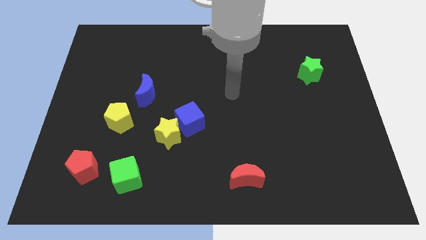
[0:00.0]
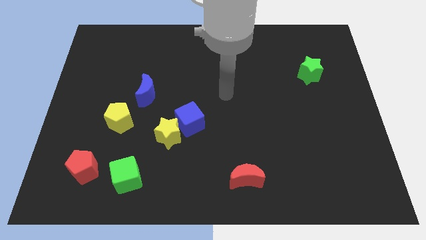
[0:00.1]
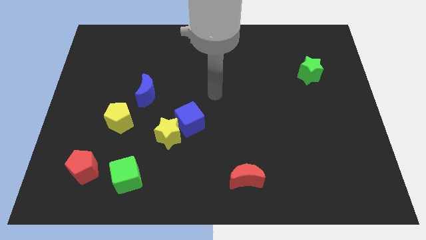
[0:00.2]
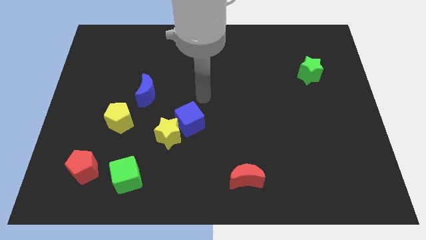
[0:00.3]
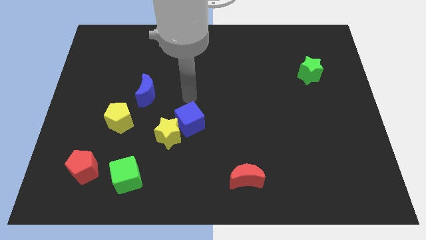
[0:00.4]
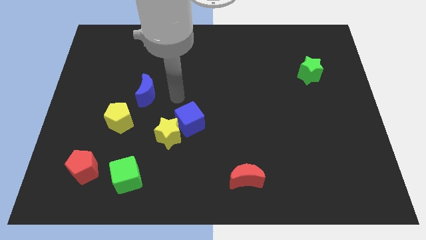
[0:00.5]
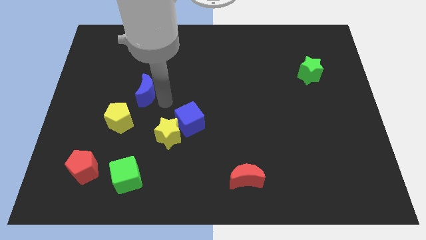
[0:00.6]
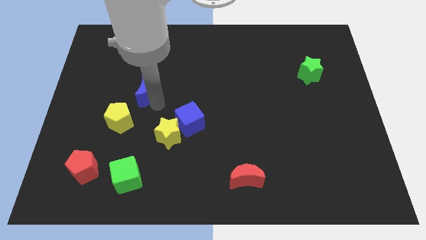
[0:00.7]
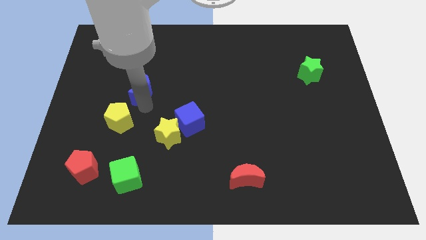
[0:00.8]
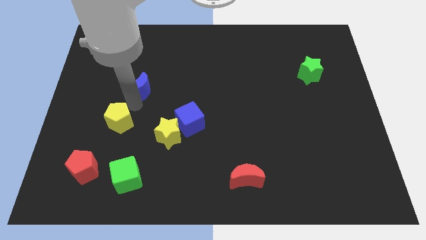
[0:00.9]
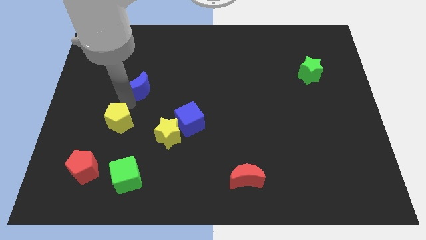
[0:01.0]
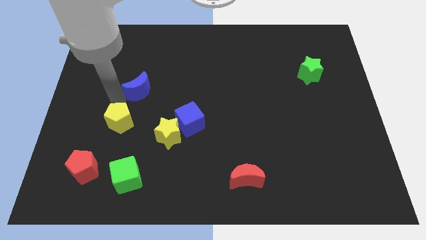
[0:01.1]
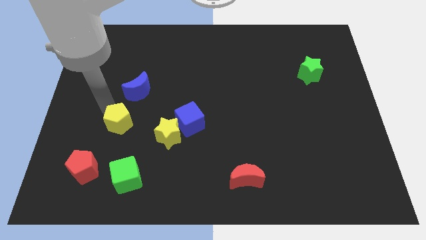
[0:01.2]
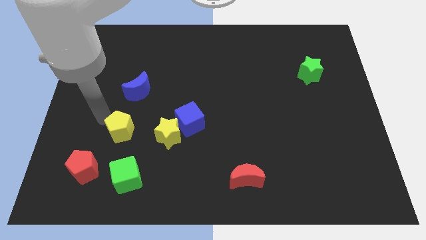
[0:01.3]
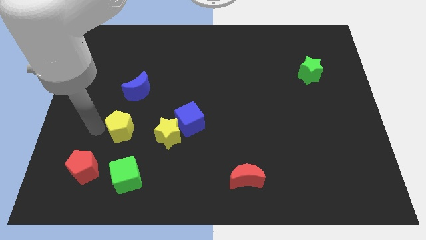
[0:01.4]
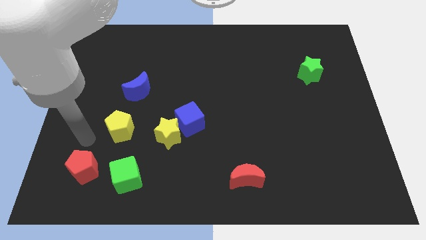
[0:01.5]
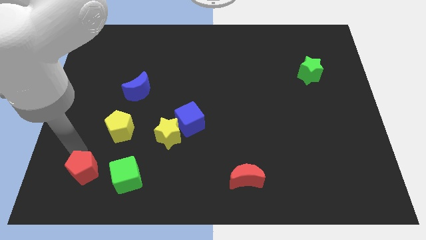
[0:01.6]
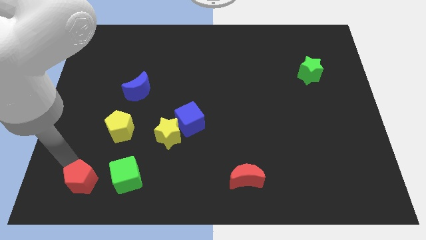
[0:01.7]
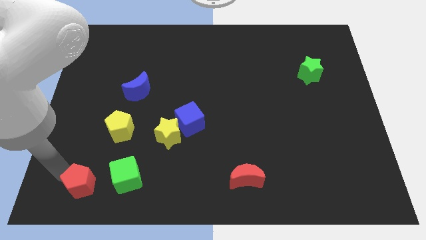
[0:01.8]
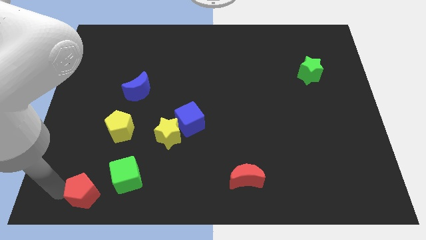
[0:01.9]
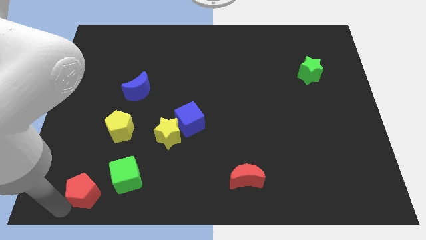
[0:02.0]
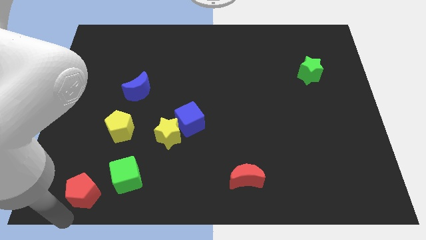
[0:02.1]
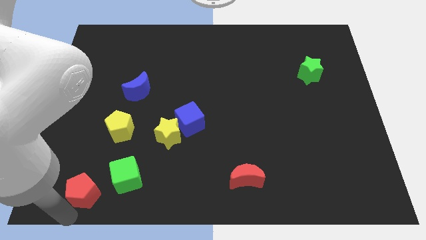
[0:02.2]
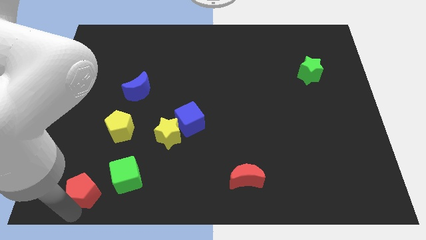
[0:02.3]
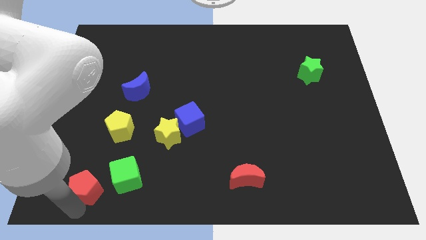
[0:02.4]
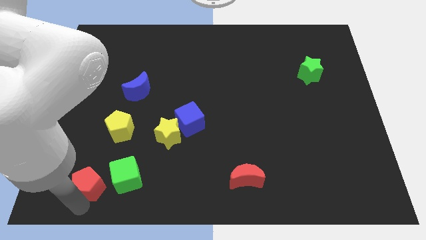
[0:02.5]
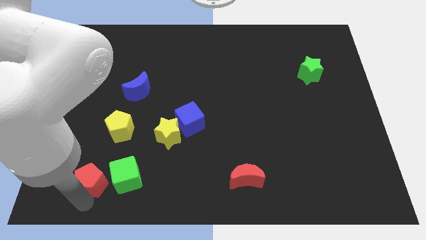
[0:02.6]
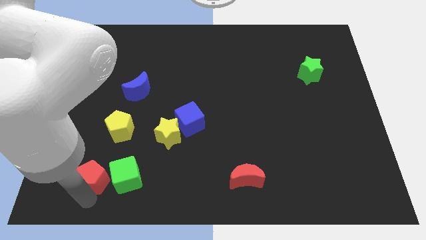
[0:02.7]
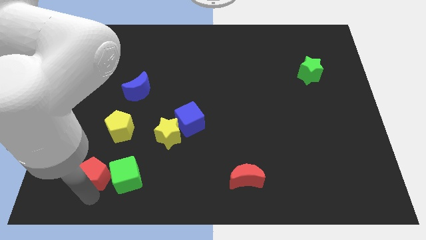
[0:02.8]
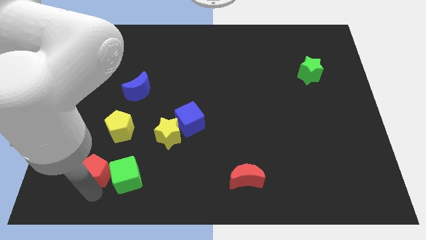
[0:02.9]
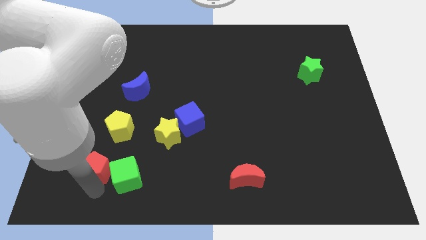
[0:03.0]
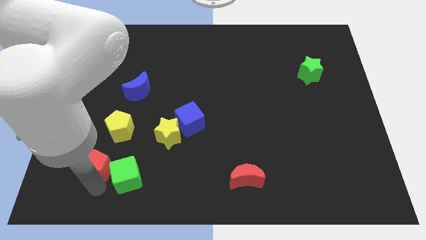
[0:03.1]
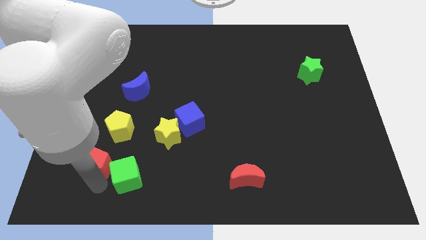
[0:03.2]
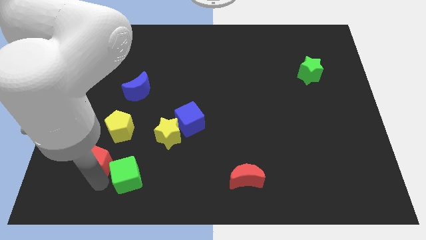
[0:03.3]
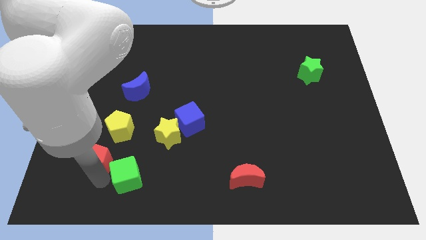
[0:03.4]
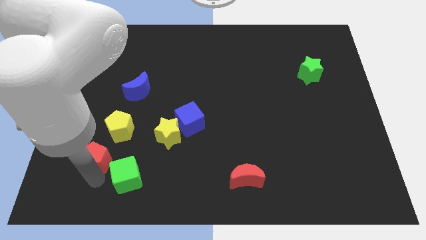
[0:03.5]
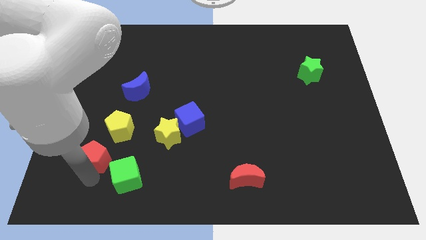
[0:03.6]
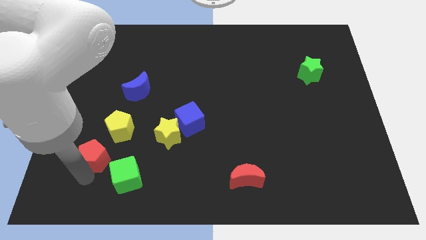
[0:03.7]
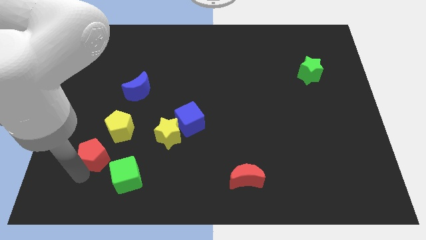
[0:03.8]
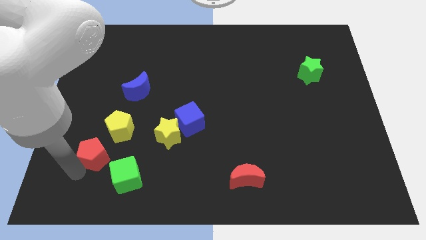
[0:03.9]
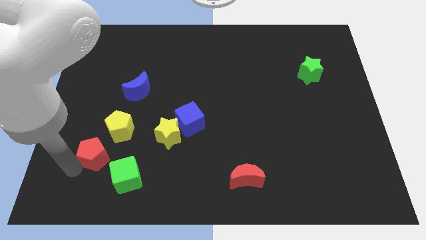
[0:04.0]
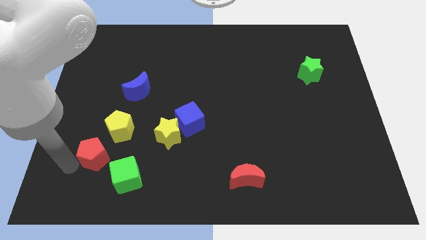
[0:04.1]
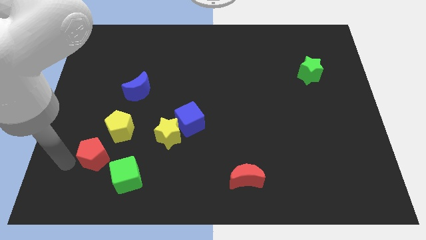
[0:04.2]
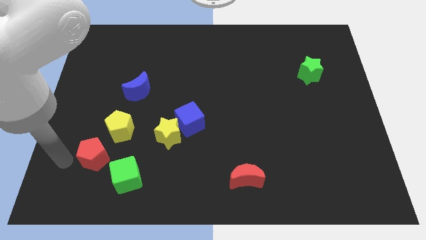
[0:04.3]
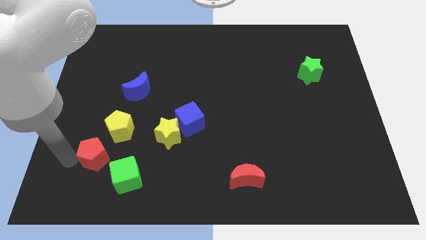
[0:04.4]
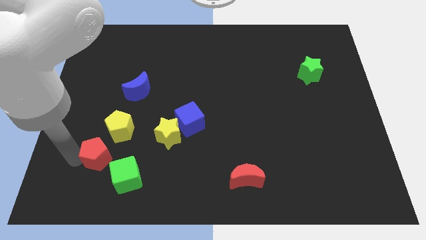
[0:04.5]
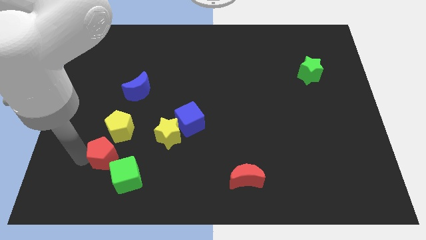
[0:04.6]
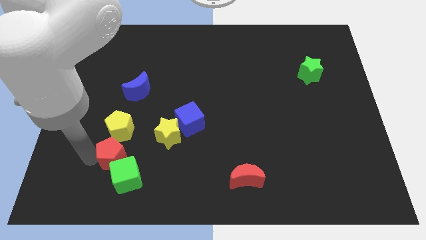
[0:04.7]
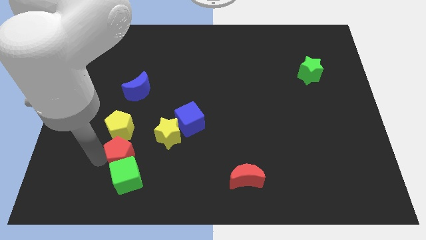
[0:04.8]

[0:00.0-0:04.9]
slightly push the red pentagon upwards and right diagonally

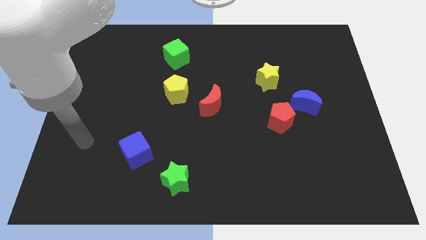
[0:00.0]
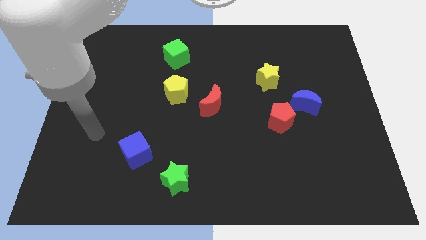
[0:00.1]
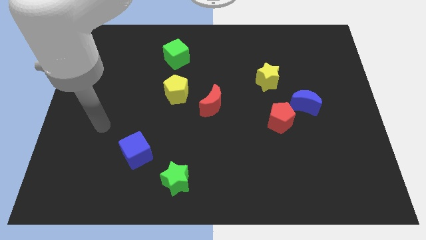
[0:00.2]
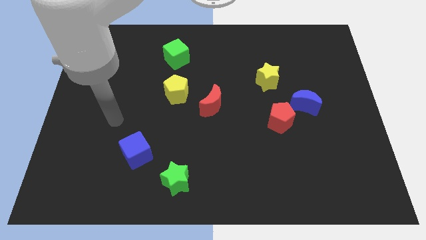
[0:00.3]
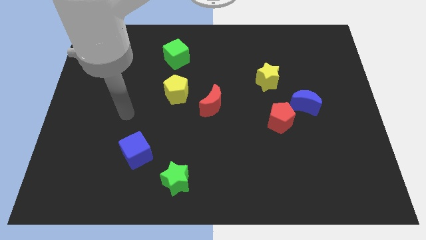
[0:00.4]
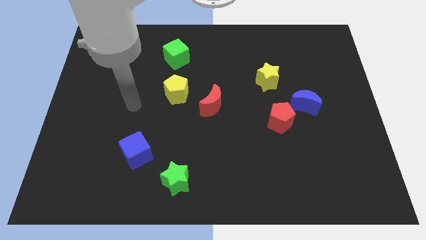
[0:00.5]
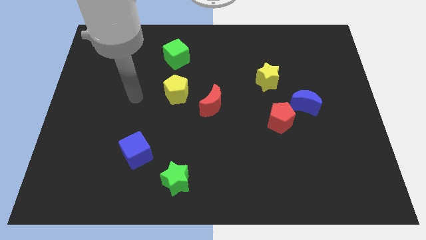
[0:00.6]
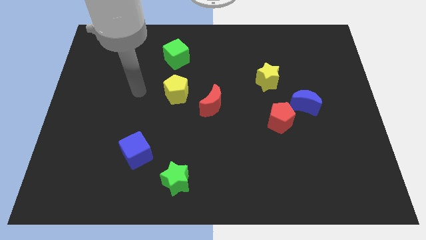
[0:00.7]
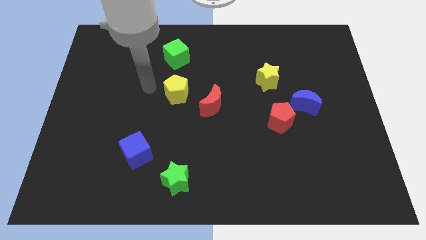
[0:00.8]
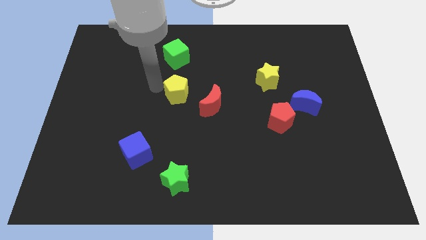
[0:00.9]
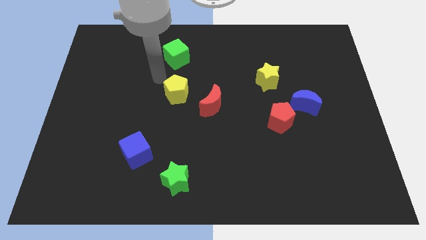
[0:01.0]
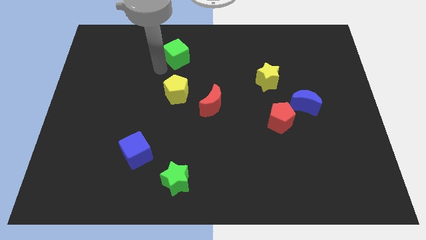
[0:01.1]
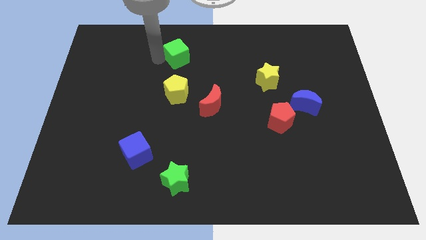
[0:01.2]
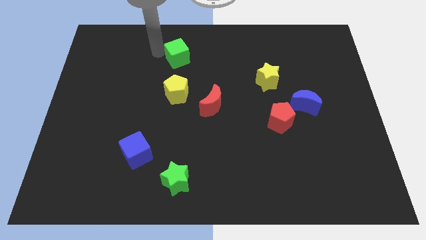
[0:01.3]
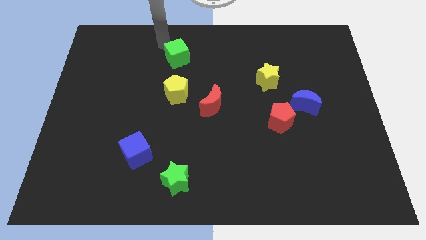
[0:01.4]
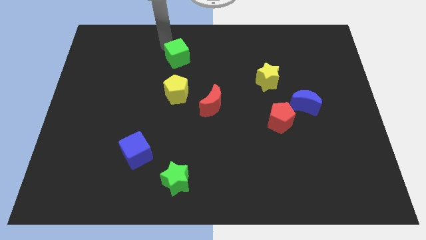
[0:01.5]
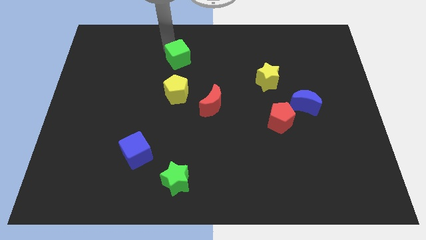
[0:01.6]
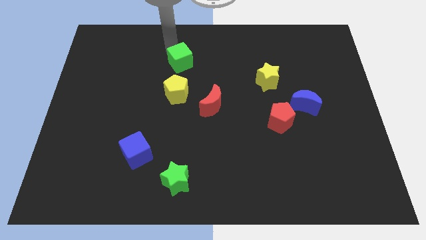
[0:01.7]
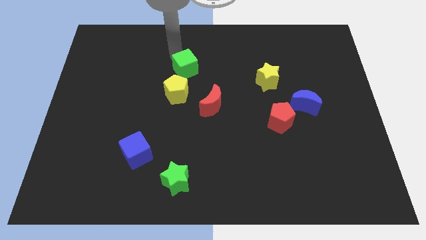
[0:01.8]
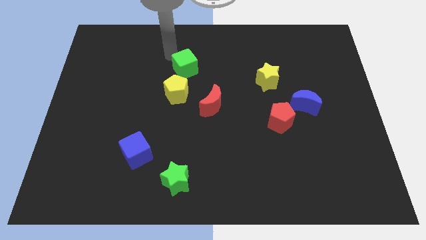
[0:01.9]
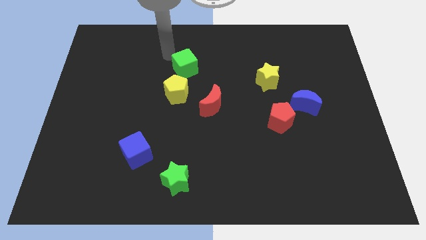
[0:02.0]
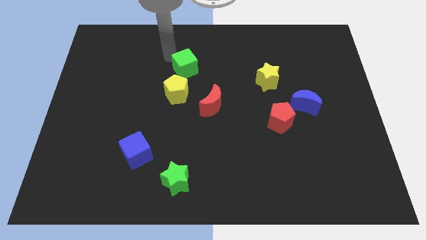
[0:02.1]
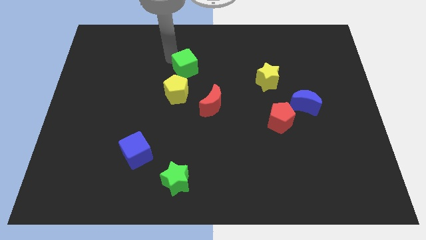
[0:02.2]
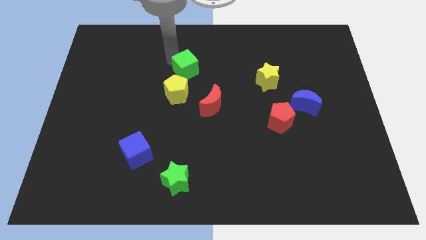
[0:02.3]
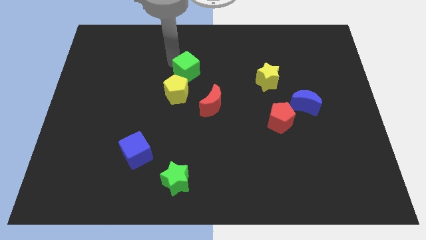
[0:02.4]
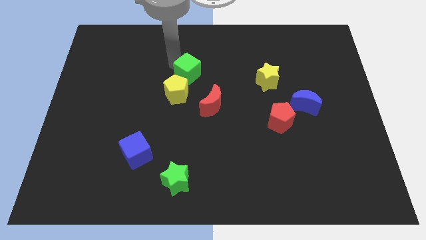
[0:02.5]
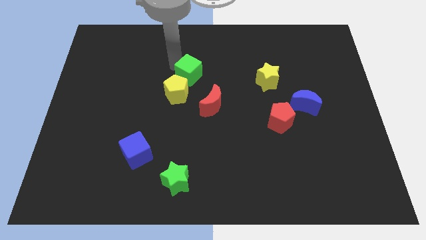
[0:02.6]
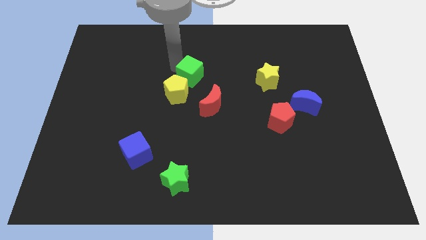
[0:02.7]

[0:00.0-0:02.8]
push the green cube a little bit down and right diagonally

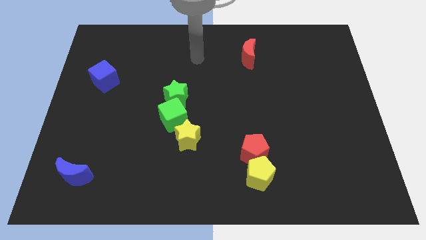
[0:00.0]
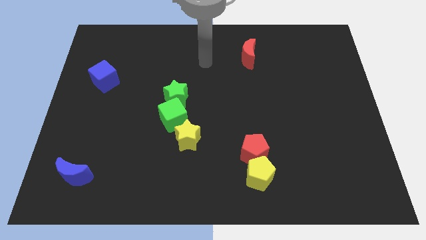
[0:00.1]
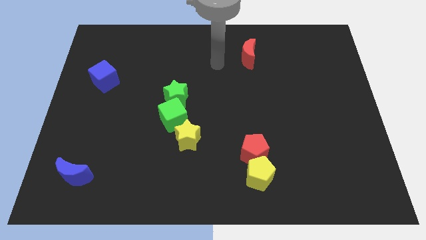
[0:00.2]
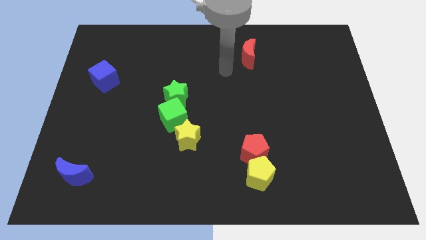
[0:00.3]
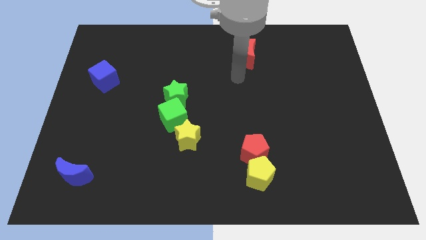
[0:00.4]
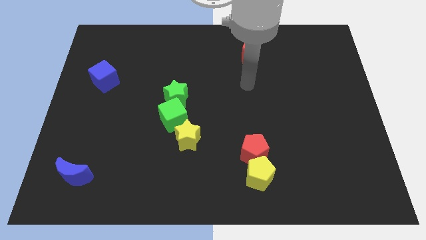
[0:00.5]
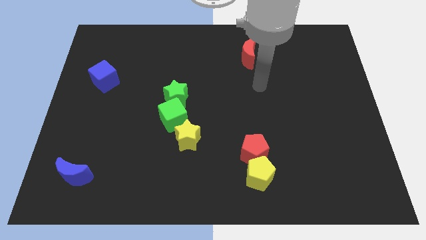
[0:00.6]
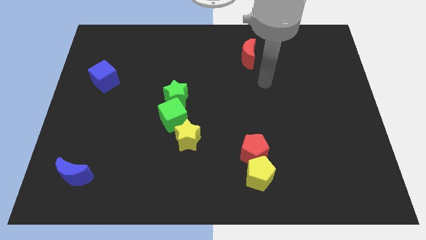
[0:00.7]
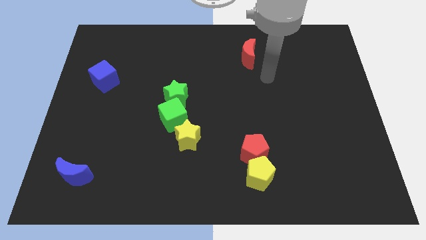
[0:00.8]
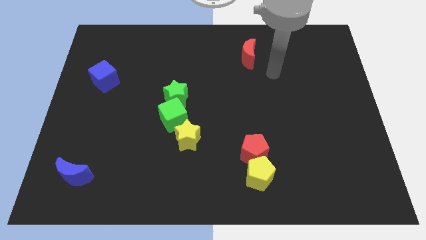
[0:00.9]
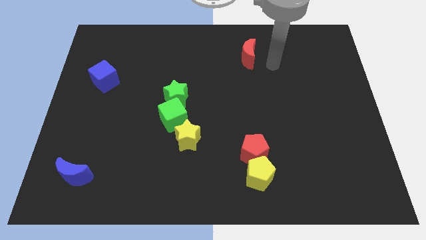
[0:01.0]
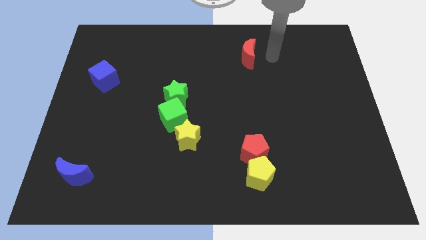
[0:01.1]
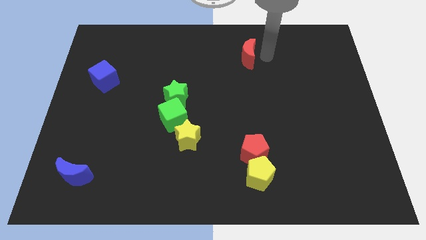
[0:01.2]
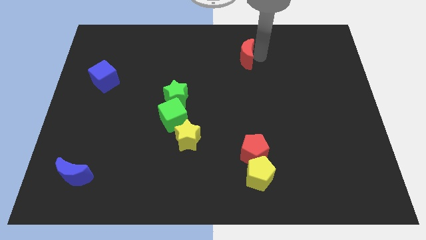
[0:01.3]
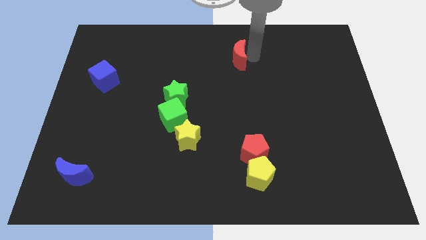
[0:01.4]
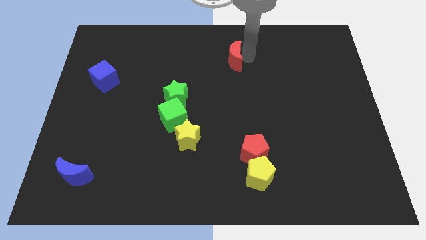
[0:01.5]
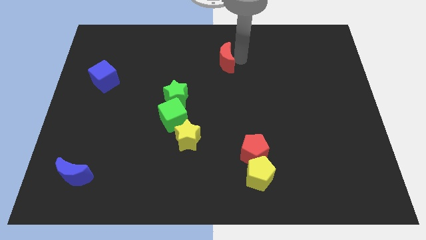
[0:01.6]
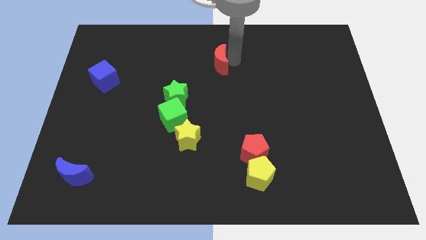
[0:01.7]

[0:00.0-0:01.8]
move the red moon left somewhat
